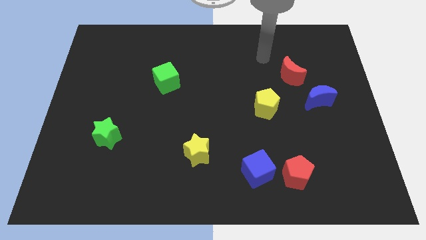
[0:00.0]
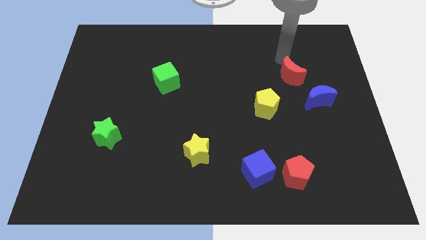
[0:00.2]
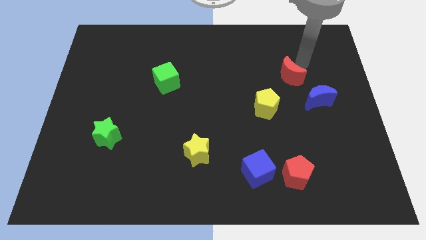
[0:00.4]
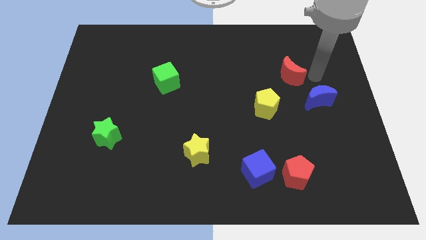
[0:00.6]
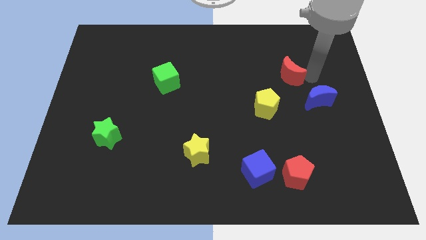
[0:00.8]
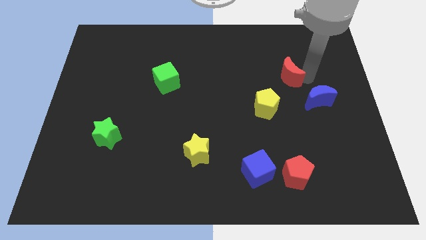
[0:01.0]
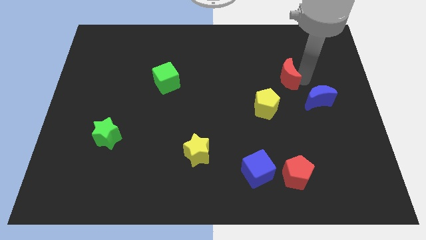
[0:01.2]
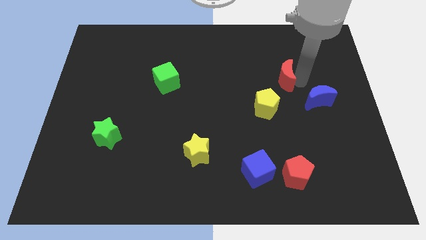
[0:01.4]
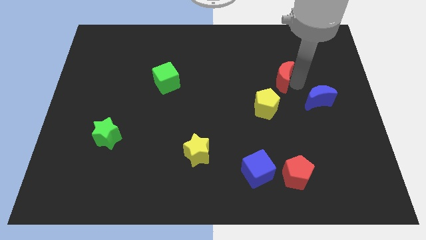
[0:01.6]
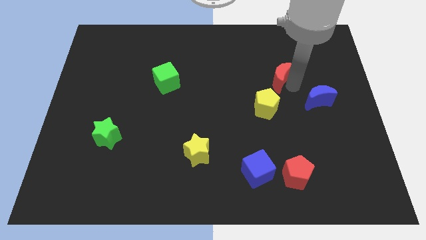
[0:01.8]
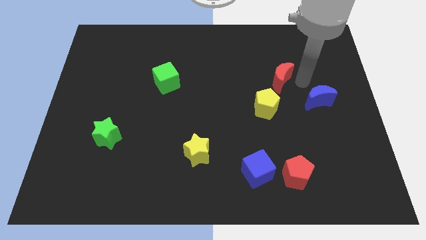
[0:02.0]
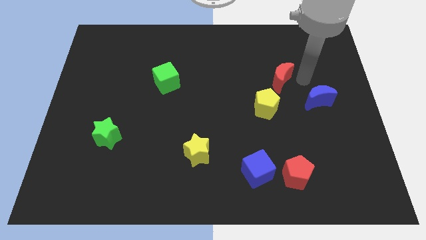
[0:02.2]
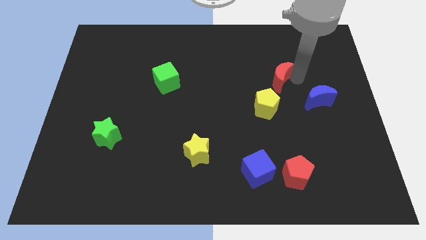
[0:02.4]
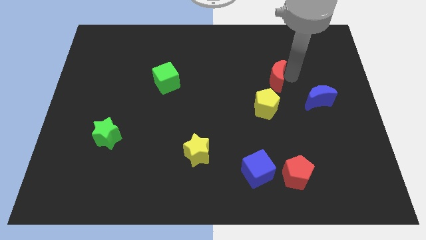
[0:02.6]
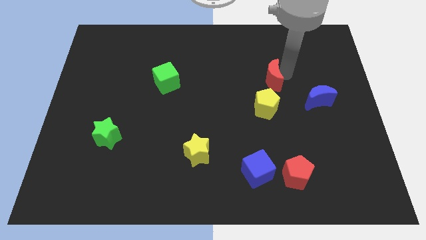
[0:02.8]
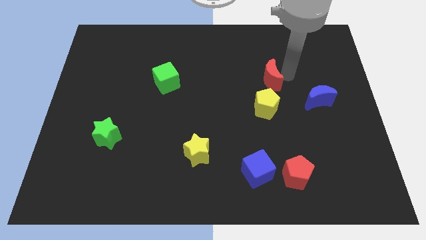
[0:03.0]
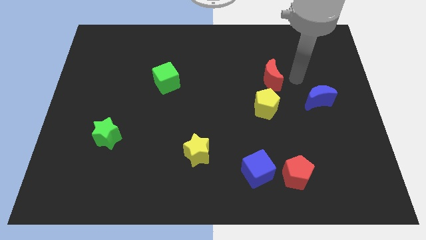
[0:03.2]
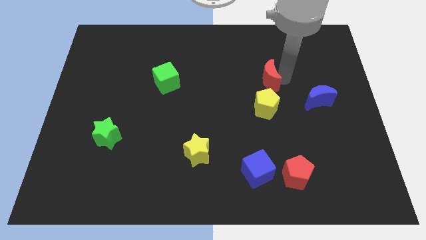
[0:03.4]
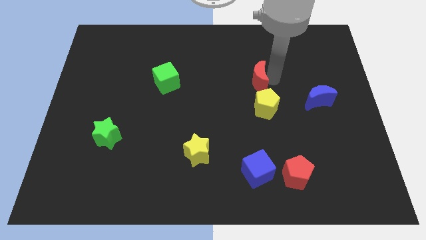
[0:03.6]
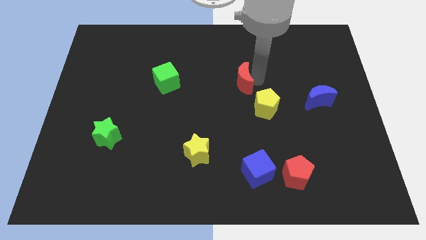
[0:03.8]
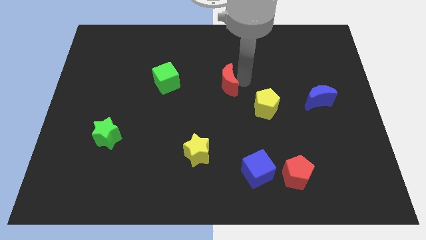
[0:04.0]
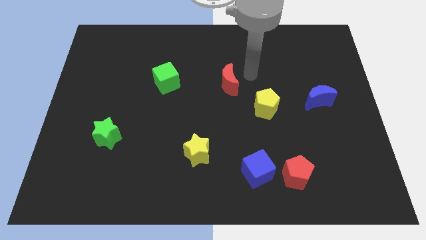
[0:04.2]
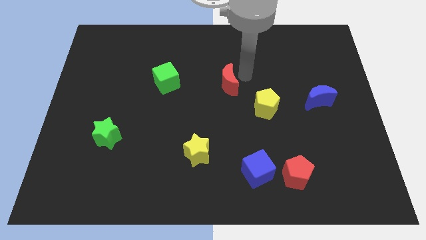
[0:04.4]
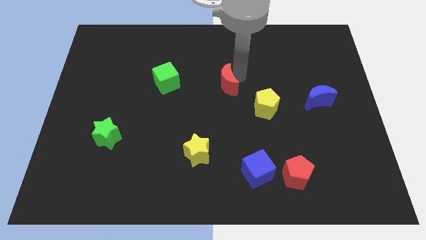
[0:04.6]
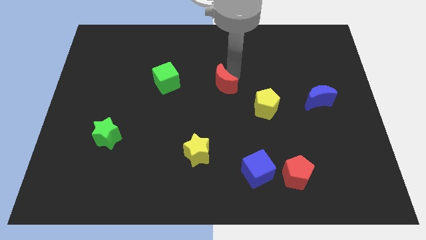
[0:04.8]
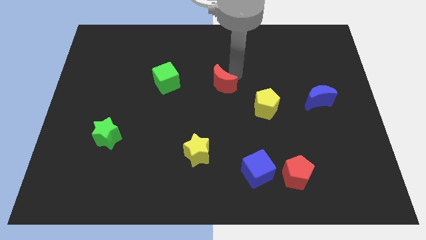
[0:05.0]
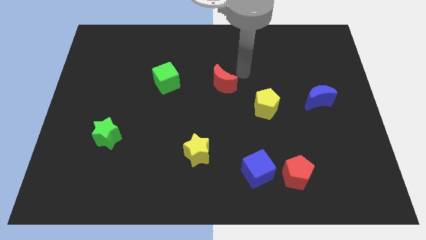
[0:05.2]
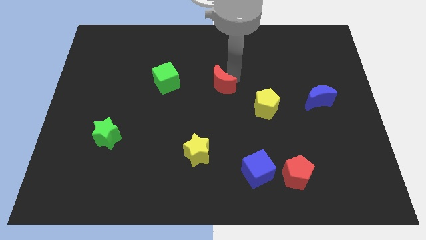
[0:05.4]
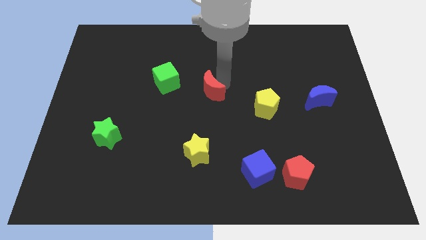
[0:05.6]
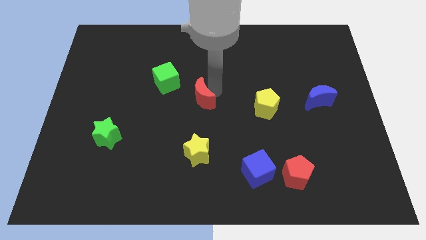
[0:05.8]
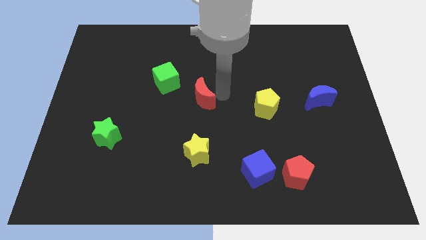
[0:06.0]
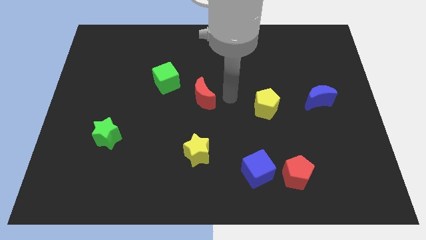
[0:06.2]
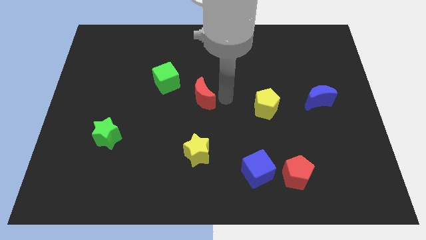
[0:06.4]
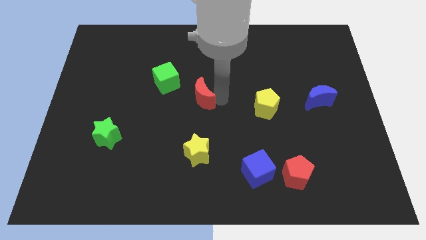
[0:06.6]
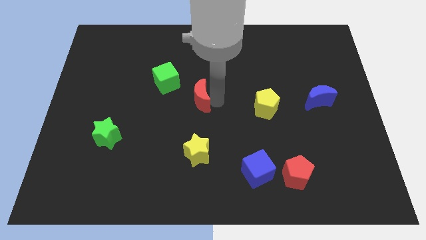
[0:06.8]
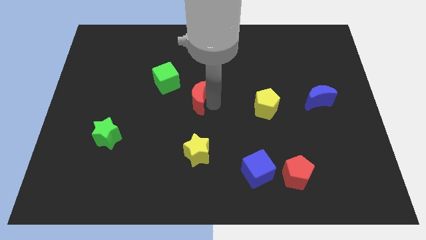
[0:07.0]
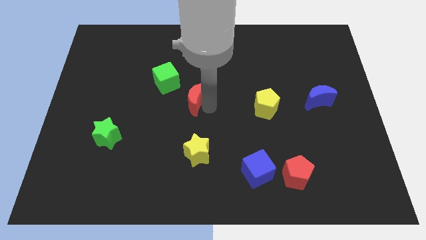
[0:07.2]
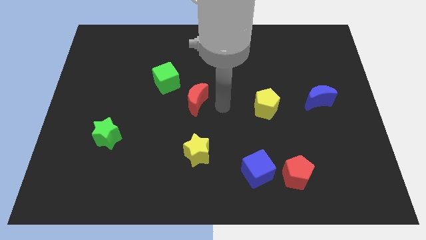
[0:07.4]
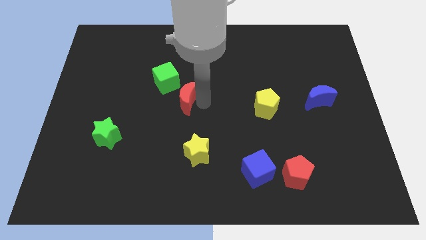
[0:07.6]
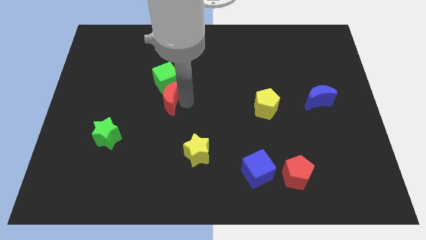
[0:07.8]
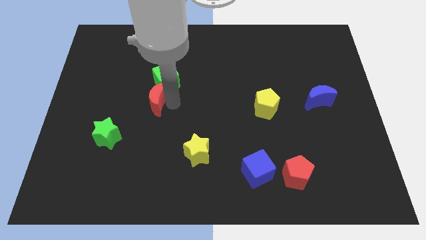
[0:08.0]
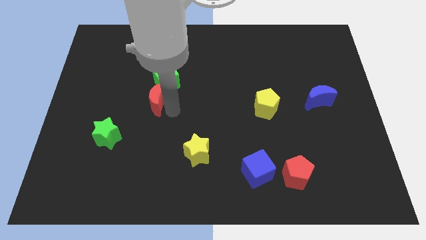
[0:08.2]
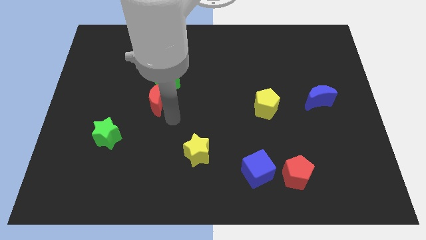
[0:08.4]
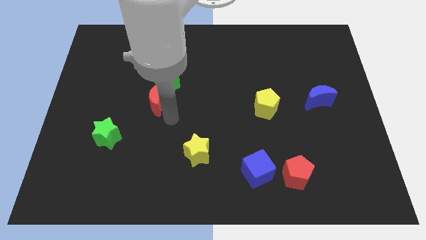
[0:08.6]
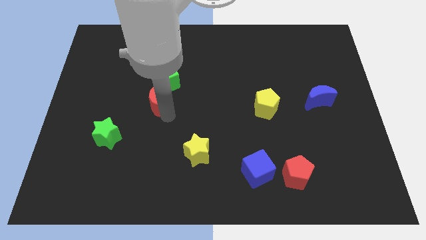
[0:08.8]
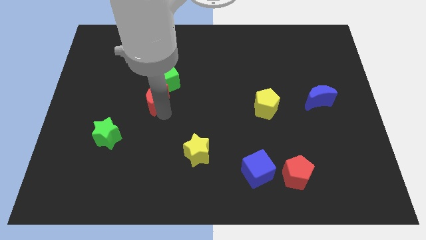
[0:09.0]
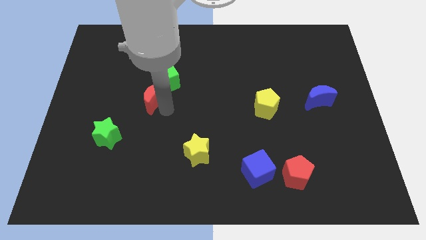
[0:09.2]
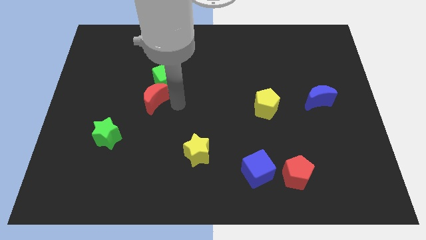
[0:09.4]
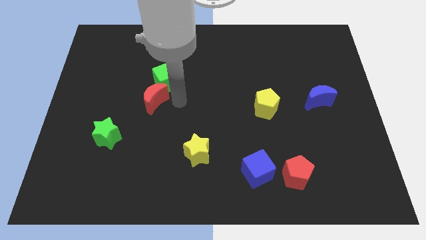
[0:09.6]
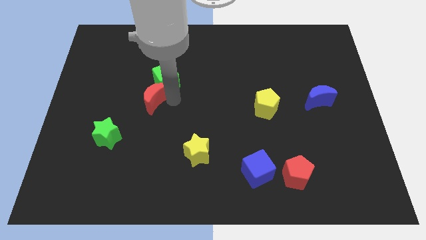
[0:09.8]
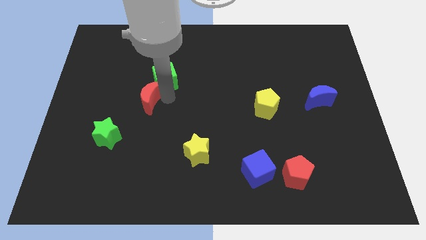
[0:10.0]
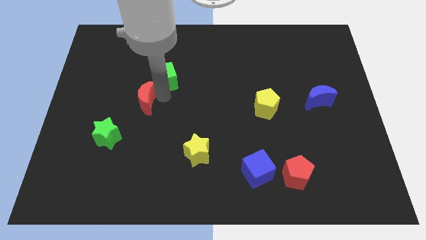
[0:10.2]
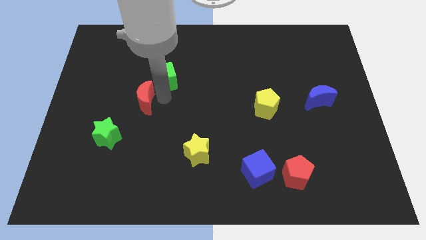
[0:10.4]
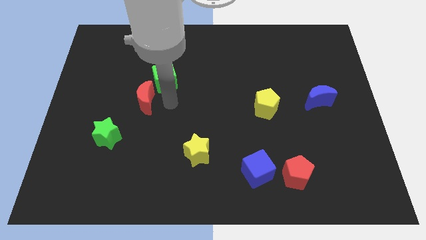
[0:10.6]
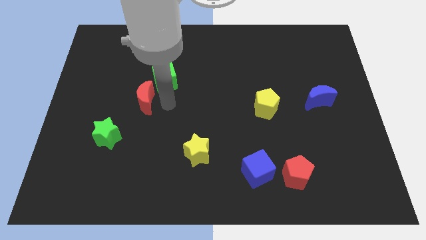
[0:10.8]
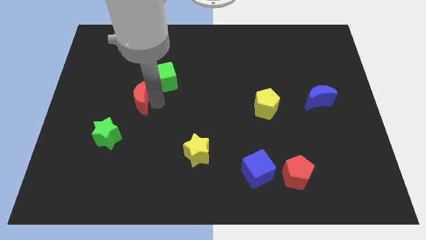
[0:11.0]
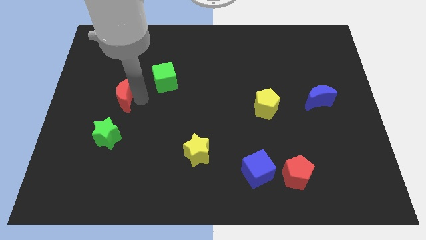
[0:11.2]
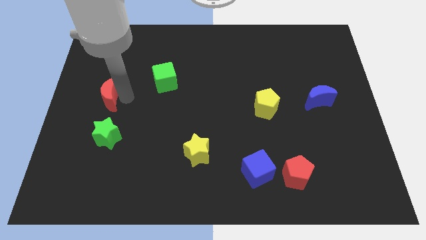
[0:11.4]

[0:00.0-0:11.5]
put the red moon to the center left
